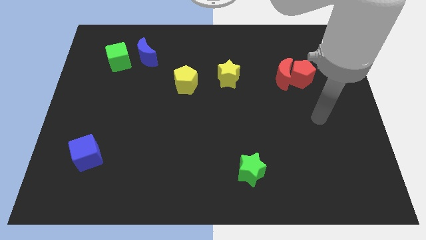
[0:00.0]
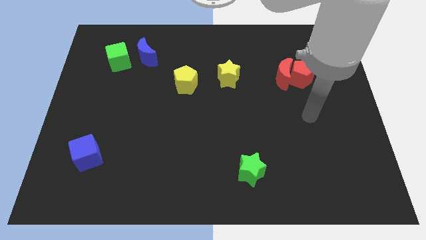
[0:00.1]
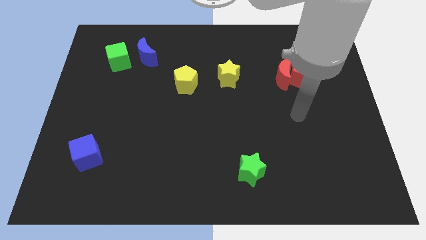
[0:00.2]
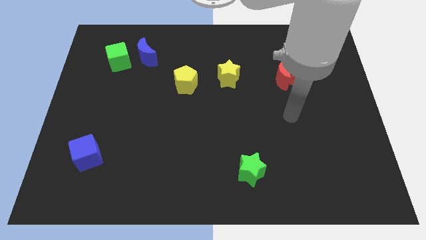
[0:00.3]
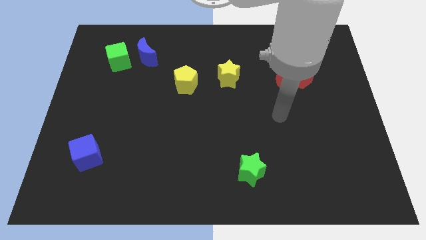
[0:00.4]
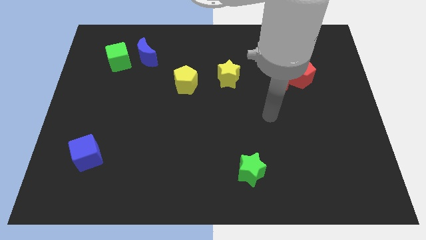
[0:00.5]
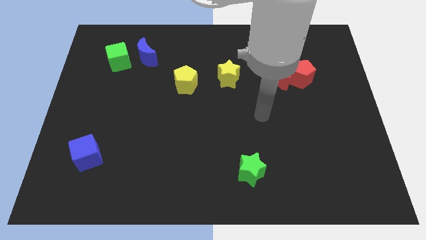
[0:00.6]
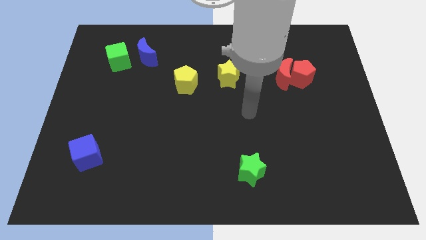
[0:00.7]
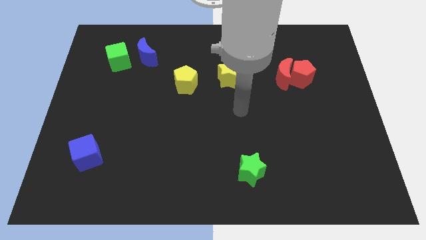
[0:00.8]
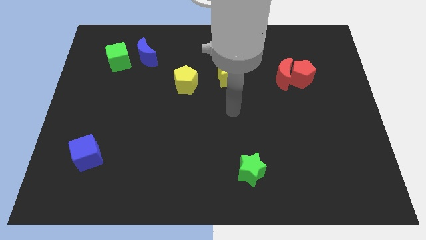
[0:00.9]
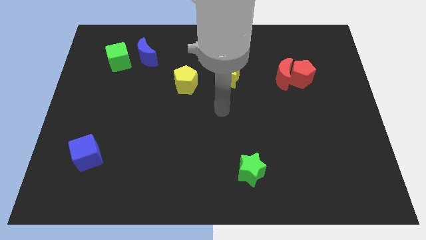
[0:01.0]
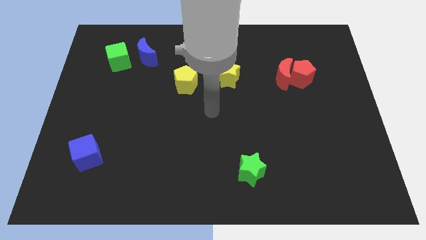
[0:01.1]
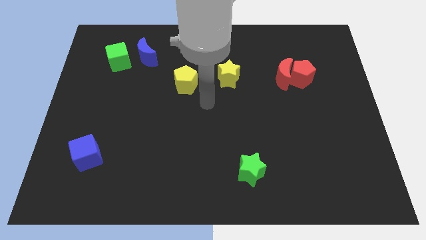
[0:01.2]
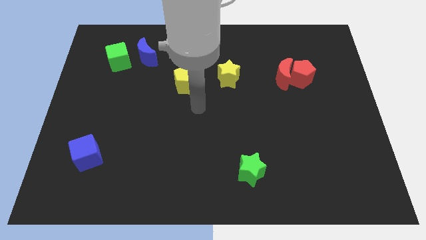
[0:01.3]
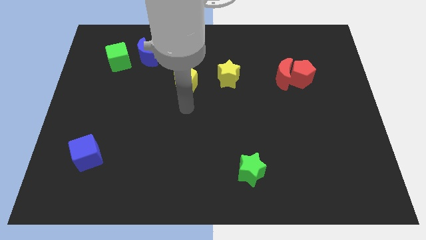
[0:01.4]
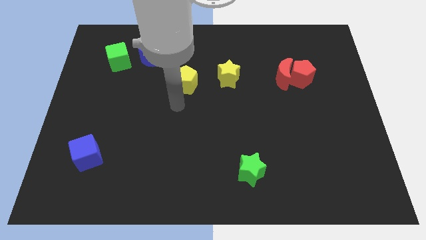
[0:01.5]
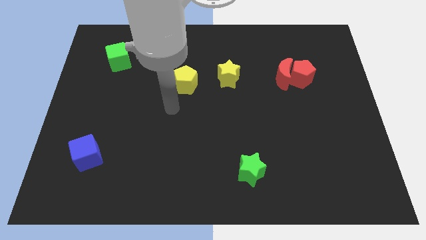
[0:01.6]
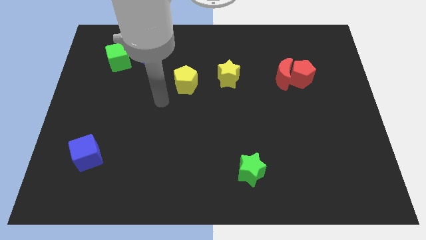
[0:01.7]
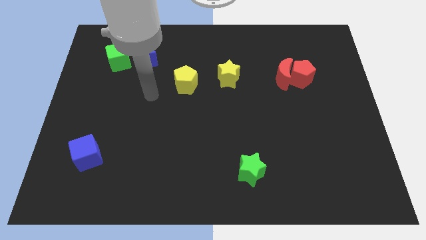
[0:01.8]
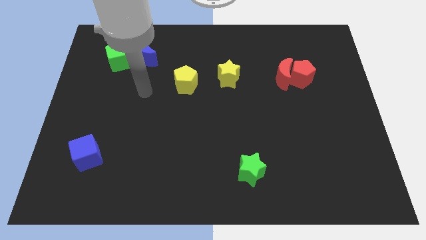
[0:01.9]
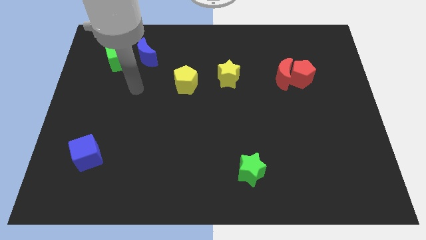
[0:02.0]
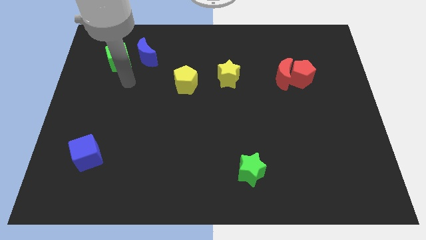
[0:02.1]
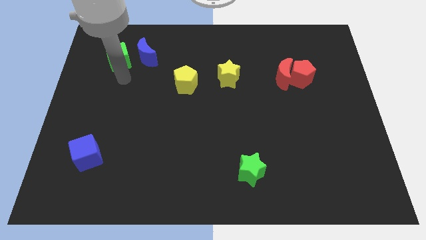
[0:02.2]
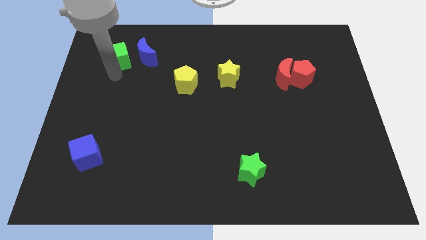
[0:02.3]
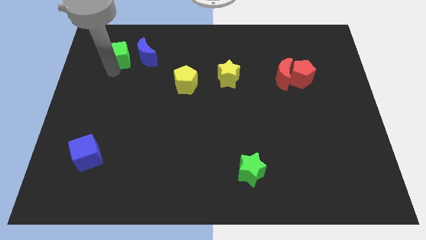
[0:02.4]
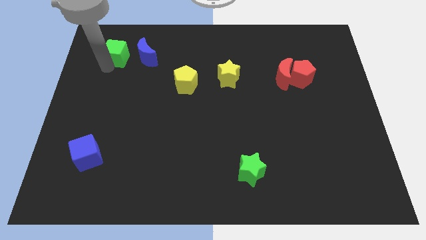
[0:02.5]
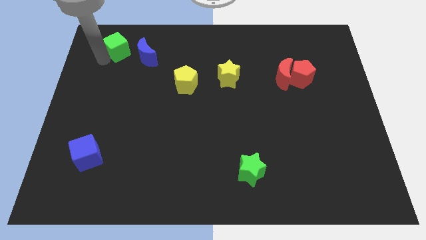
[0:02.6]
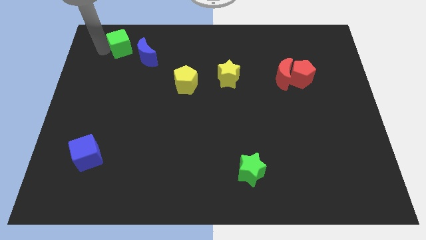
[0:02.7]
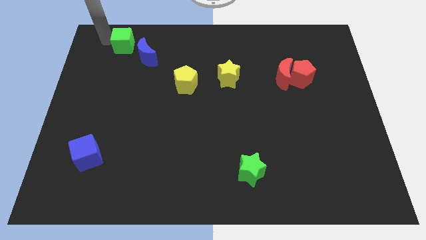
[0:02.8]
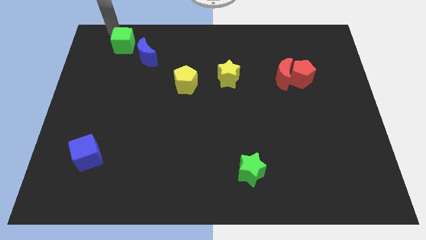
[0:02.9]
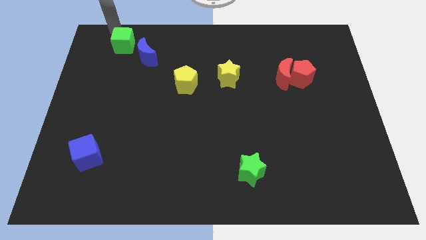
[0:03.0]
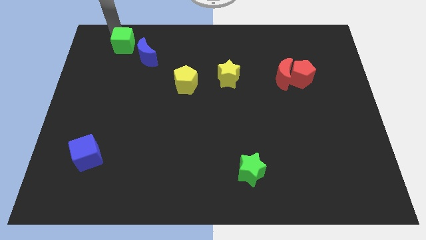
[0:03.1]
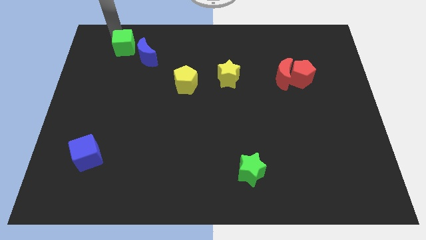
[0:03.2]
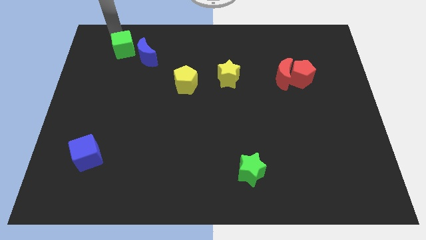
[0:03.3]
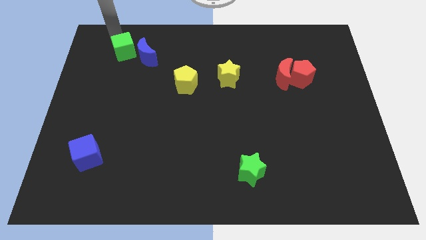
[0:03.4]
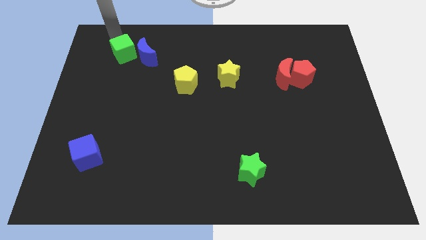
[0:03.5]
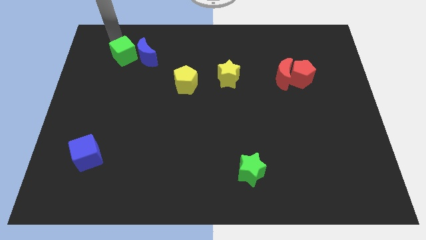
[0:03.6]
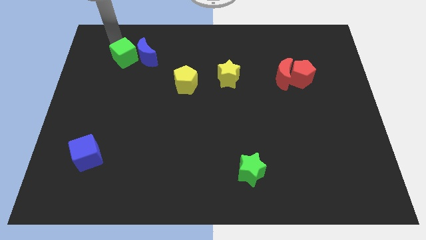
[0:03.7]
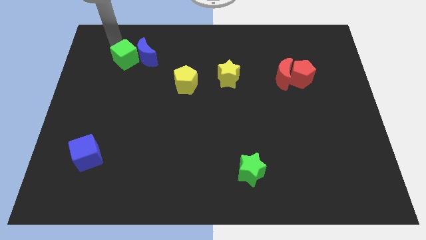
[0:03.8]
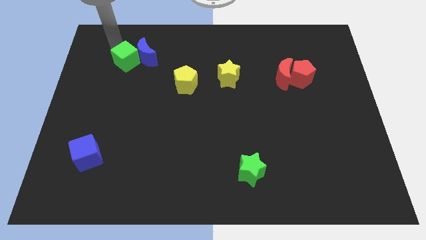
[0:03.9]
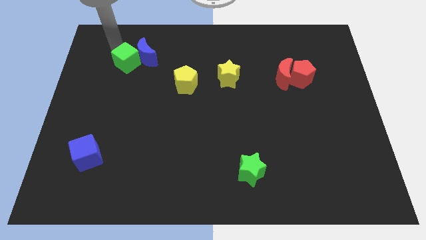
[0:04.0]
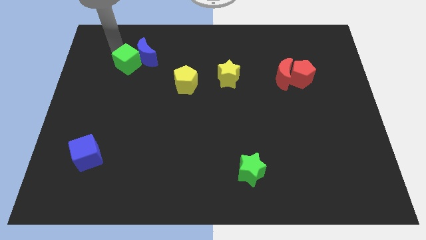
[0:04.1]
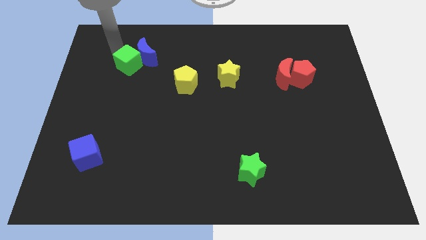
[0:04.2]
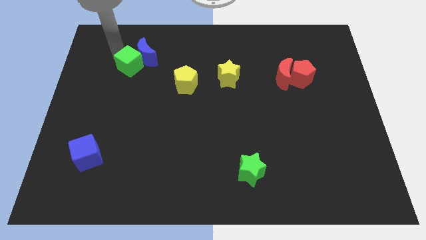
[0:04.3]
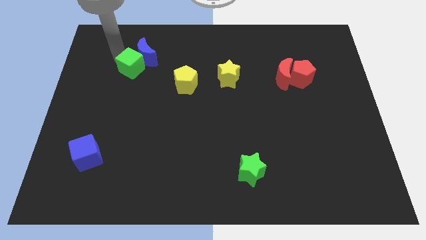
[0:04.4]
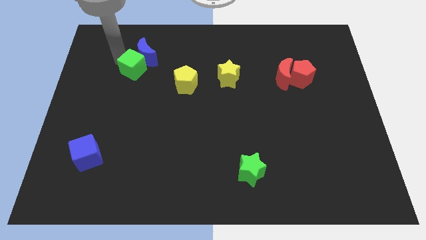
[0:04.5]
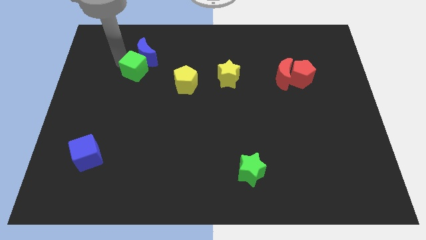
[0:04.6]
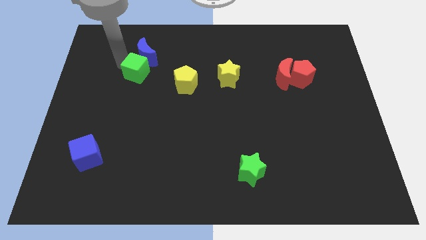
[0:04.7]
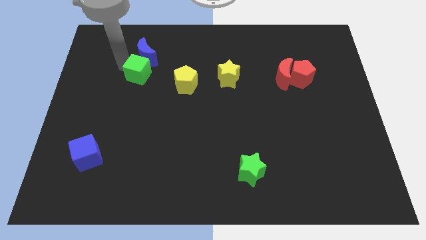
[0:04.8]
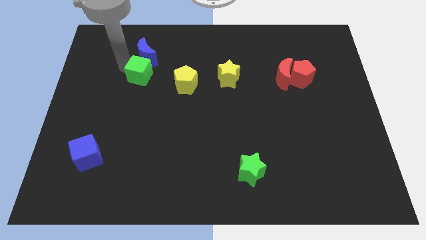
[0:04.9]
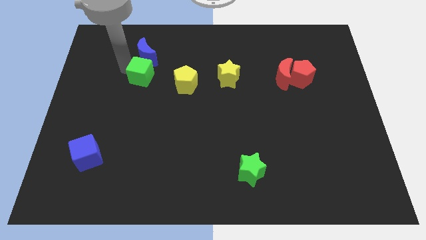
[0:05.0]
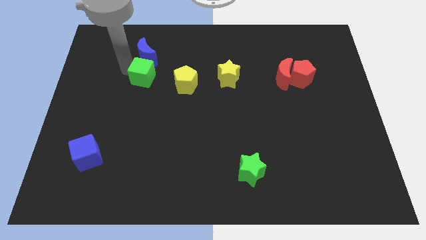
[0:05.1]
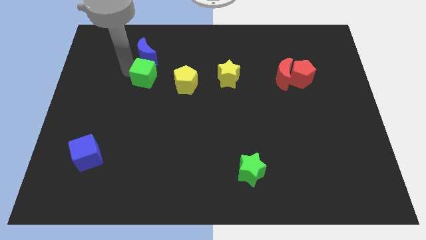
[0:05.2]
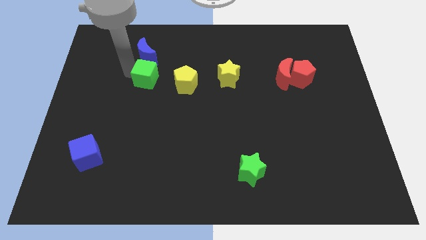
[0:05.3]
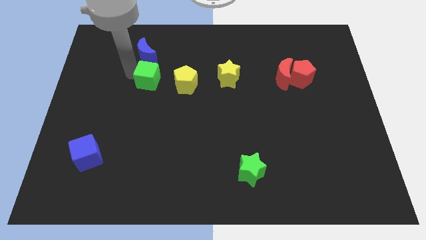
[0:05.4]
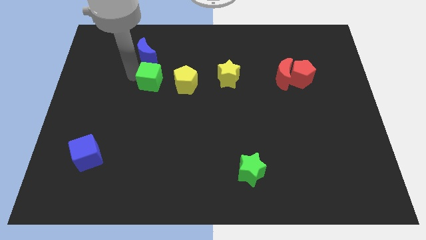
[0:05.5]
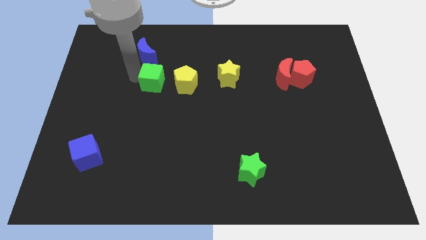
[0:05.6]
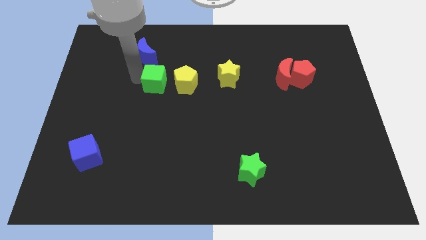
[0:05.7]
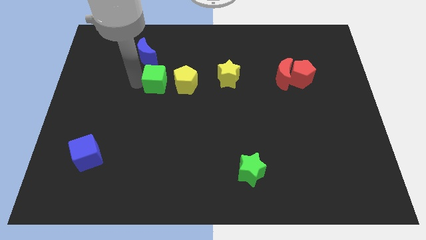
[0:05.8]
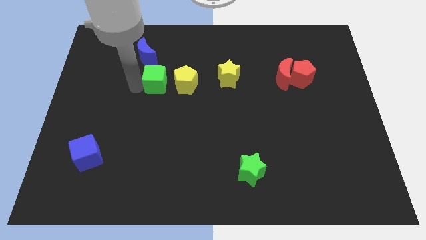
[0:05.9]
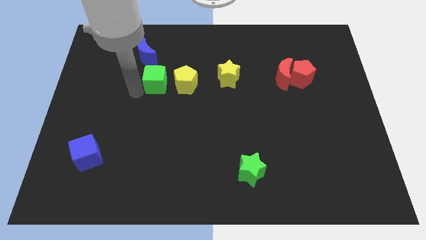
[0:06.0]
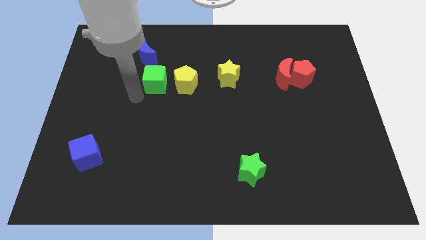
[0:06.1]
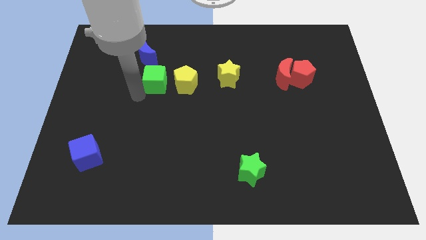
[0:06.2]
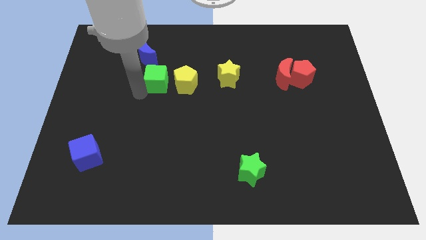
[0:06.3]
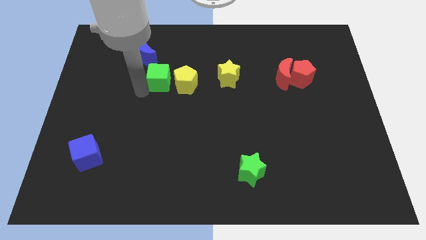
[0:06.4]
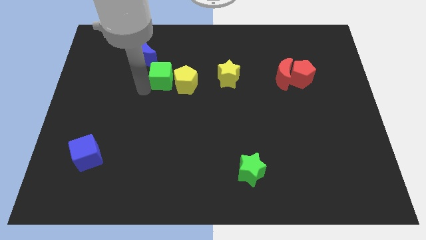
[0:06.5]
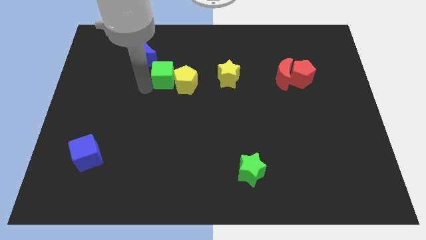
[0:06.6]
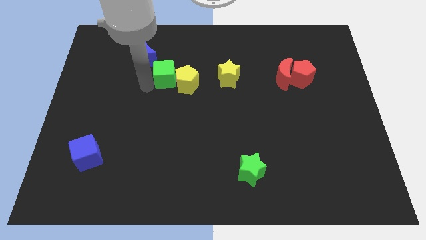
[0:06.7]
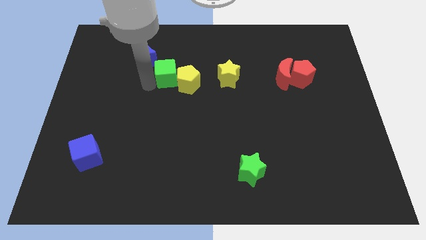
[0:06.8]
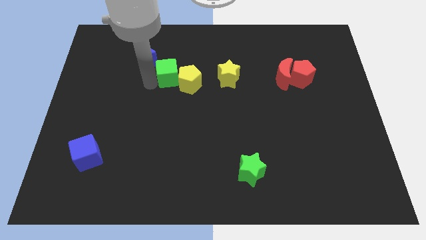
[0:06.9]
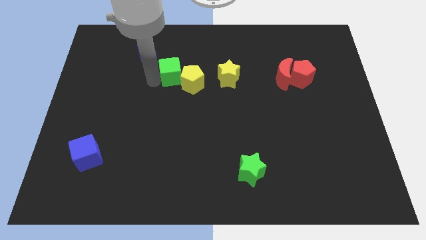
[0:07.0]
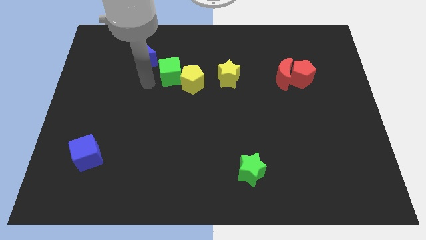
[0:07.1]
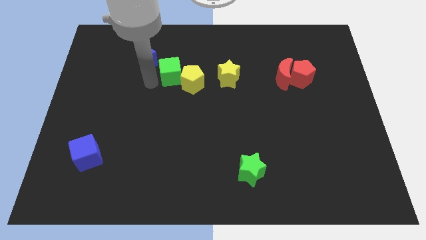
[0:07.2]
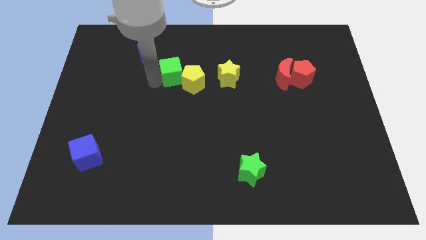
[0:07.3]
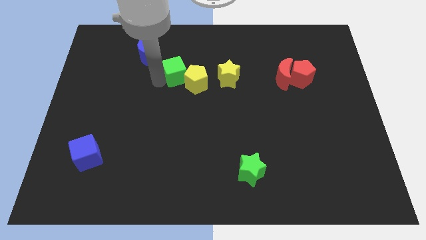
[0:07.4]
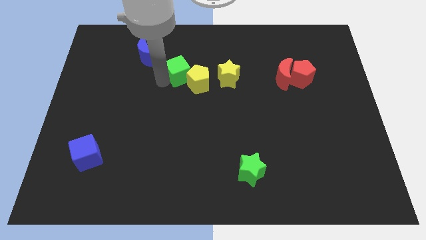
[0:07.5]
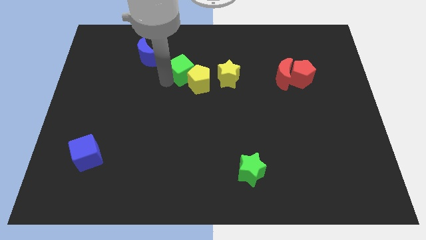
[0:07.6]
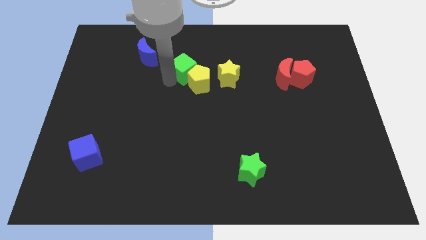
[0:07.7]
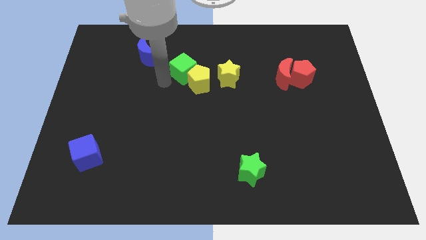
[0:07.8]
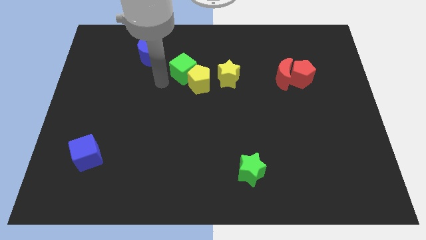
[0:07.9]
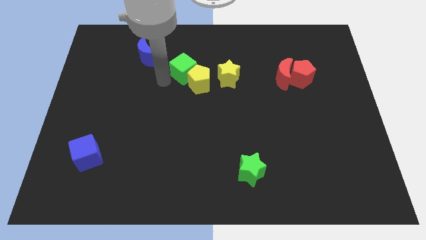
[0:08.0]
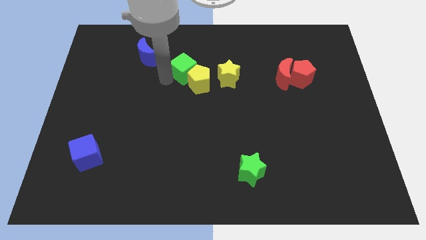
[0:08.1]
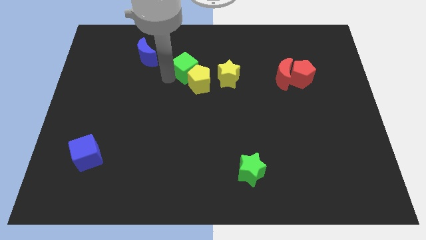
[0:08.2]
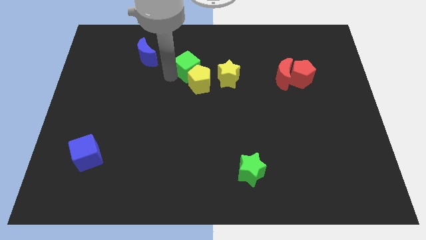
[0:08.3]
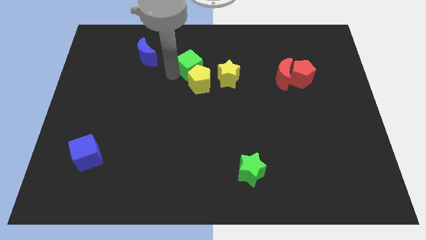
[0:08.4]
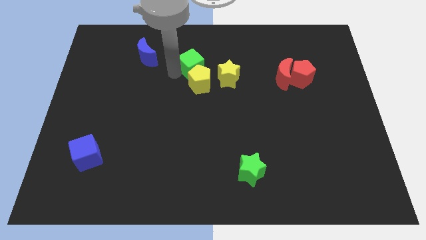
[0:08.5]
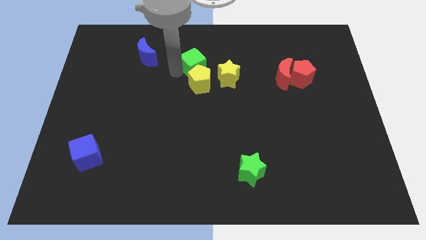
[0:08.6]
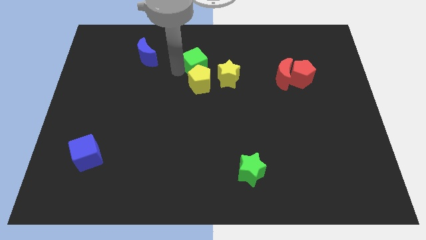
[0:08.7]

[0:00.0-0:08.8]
move the green cube right

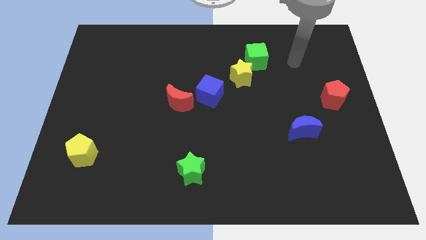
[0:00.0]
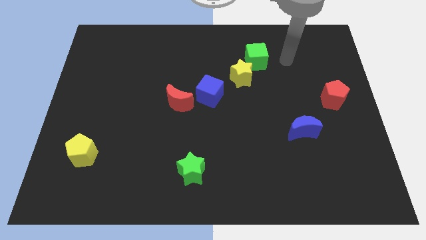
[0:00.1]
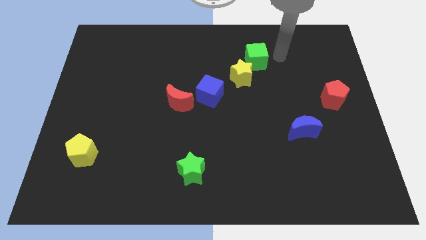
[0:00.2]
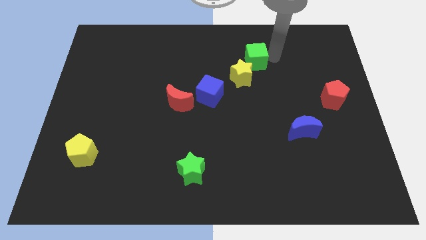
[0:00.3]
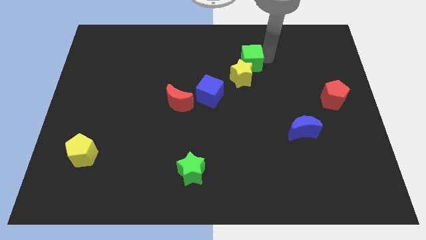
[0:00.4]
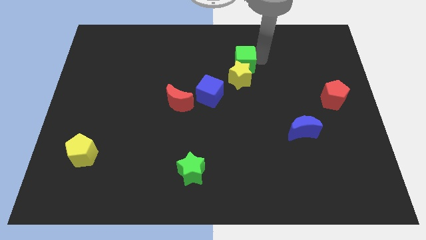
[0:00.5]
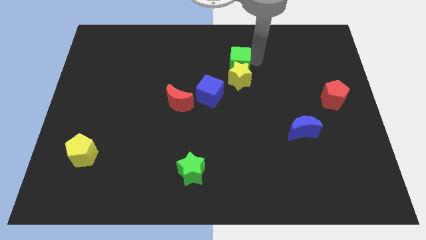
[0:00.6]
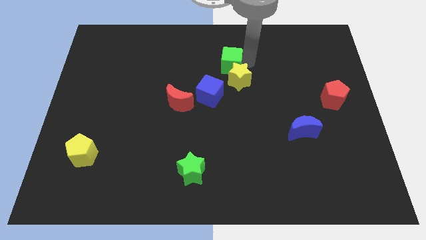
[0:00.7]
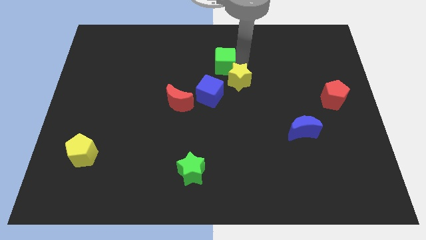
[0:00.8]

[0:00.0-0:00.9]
push the green cube slightly to the left
